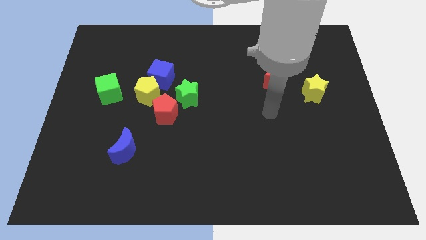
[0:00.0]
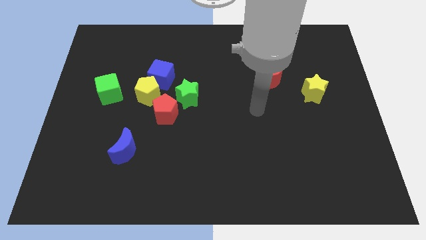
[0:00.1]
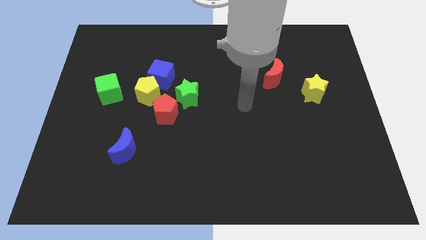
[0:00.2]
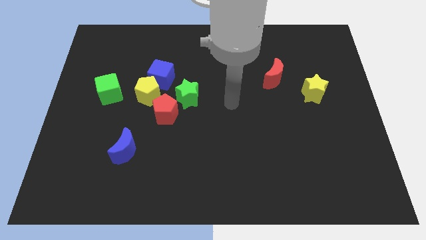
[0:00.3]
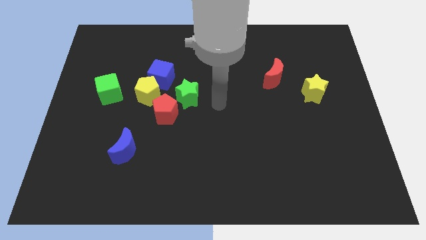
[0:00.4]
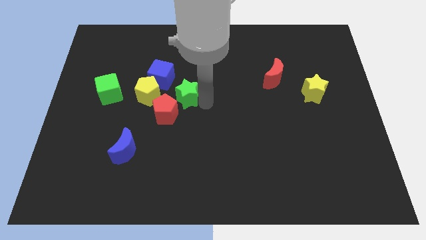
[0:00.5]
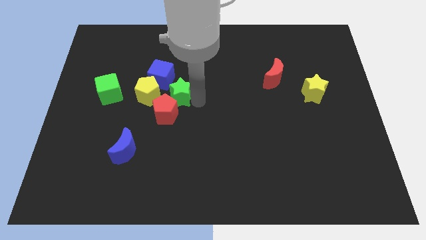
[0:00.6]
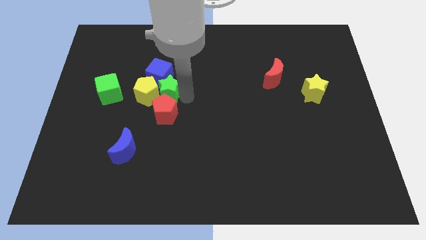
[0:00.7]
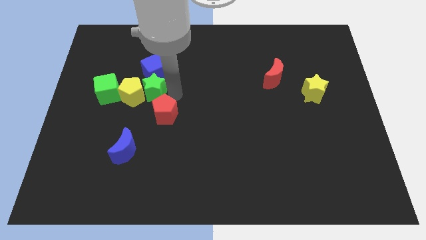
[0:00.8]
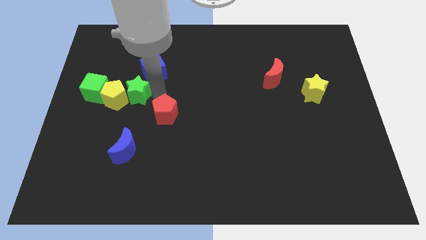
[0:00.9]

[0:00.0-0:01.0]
move the red pentagon away from the green star and yellow pentagon

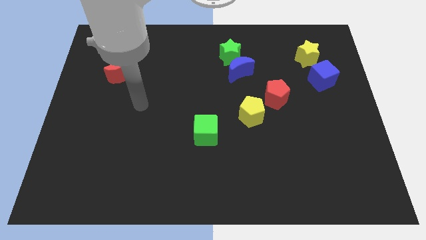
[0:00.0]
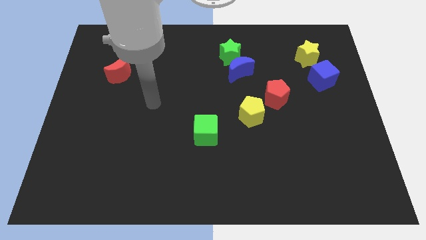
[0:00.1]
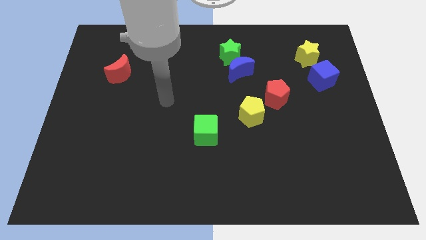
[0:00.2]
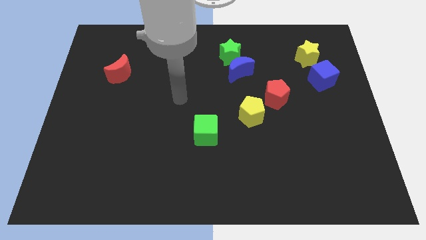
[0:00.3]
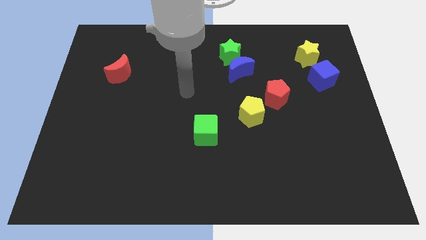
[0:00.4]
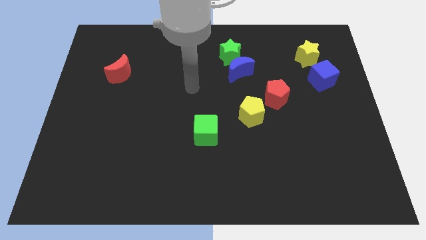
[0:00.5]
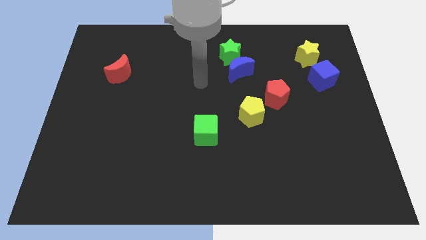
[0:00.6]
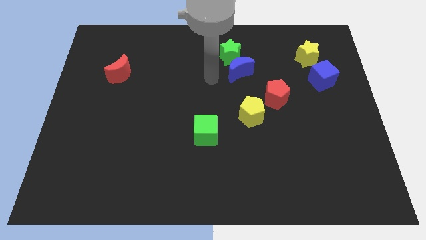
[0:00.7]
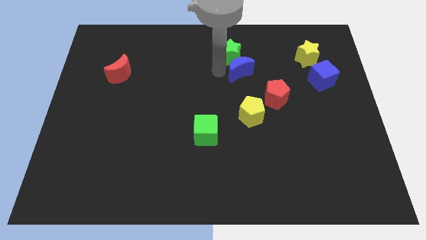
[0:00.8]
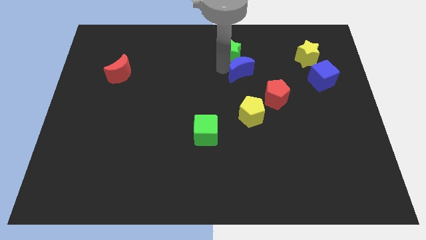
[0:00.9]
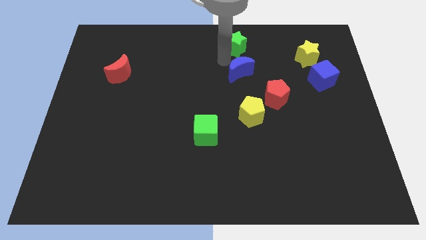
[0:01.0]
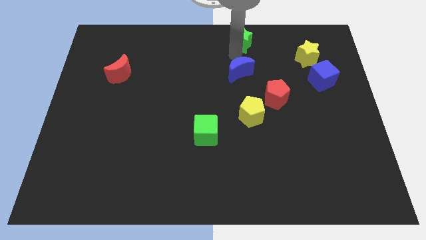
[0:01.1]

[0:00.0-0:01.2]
pull the blue moon apart from the green star

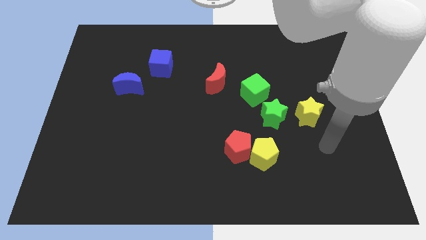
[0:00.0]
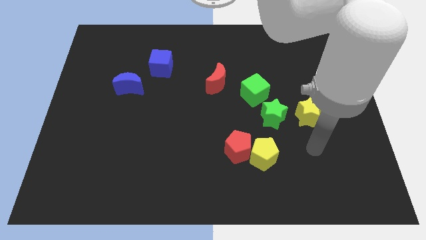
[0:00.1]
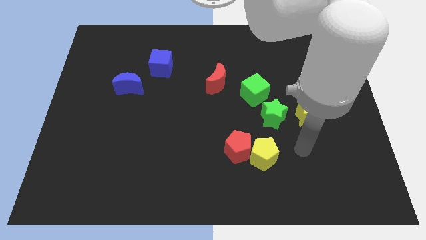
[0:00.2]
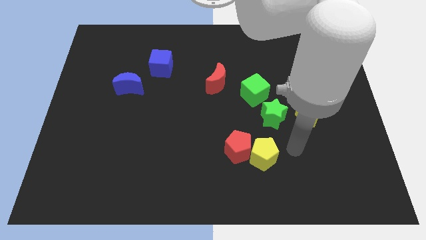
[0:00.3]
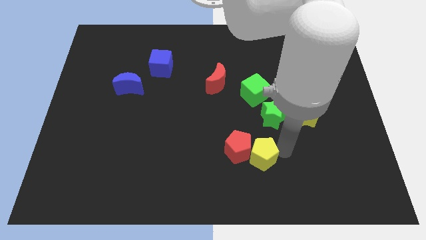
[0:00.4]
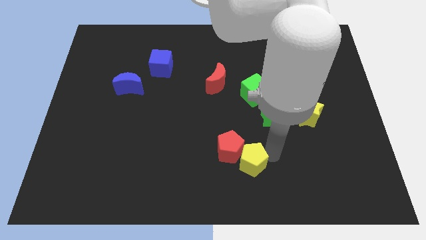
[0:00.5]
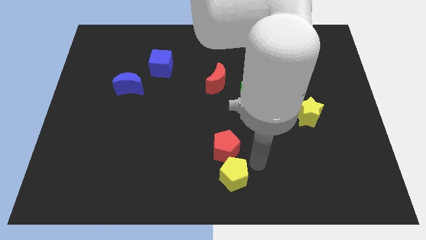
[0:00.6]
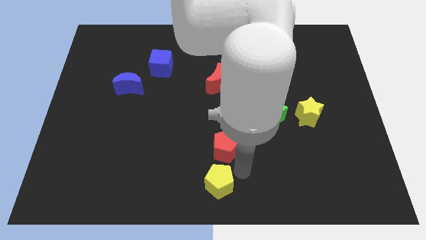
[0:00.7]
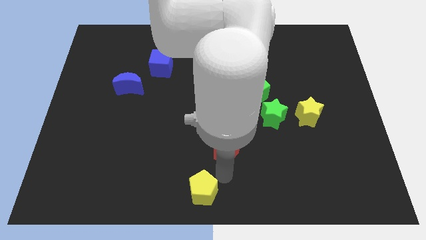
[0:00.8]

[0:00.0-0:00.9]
move the red pentagon away from the yellow pentagon

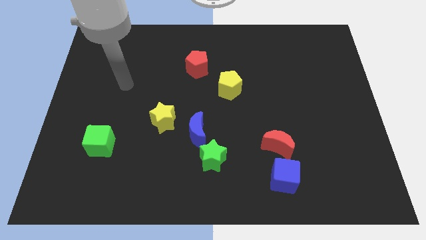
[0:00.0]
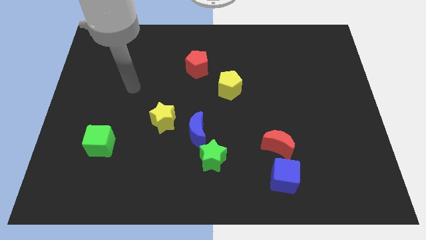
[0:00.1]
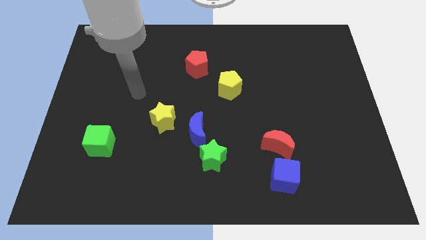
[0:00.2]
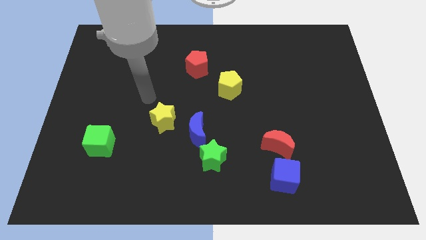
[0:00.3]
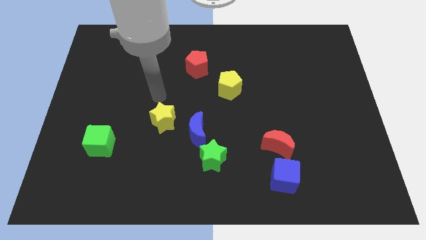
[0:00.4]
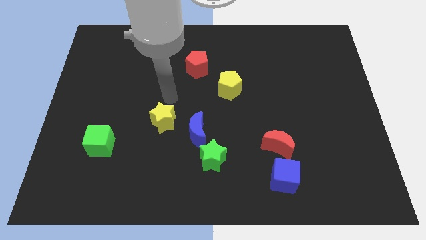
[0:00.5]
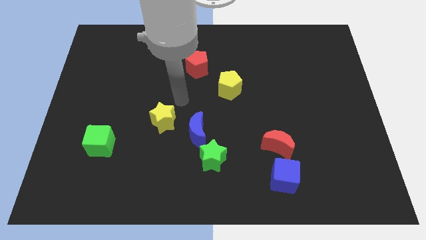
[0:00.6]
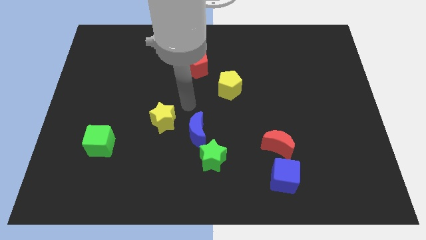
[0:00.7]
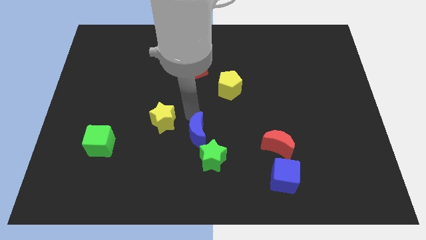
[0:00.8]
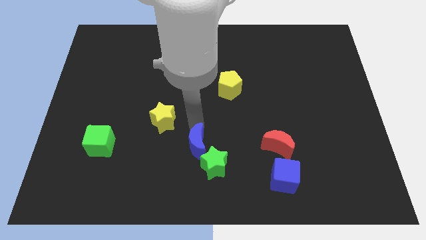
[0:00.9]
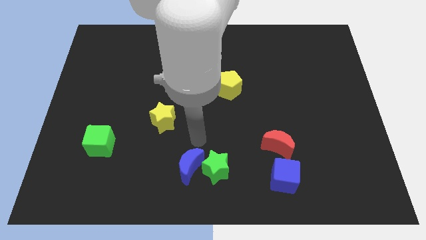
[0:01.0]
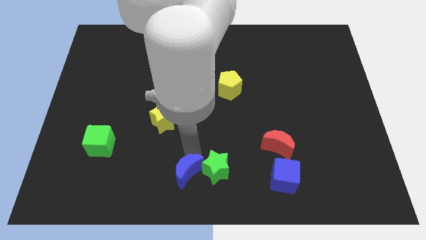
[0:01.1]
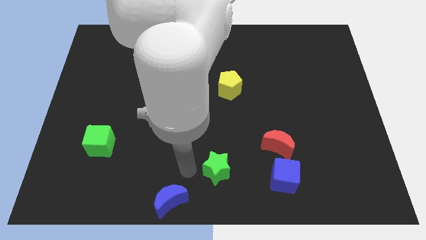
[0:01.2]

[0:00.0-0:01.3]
pull the green star apart from the blue moon

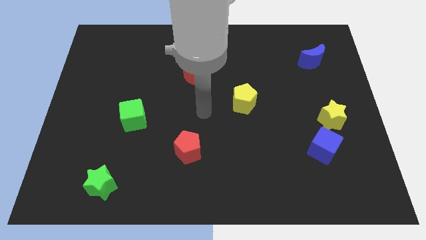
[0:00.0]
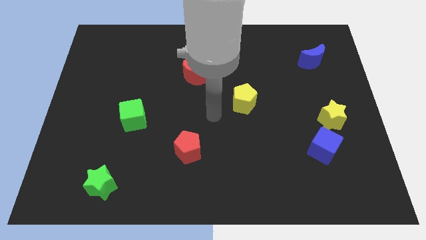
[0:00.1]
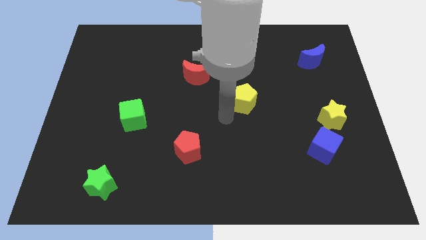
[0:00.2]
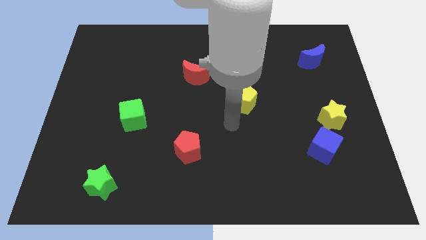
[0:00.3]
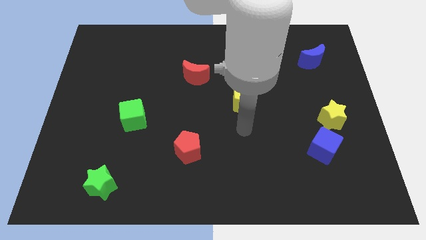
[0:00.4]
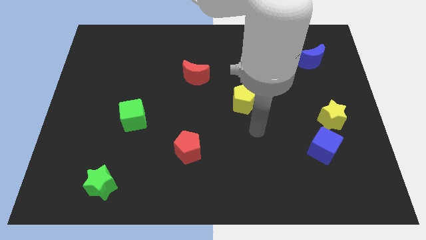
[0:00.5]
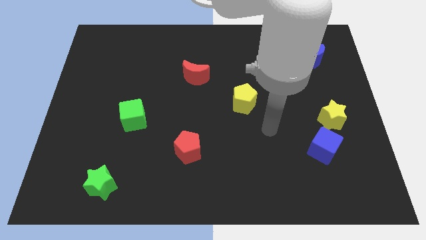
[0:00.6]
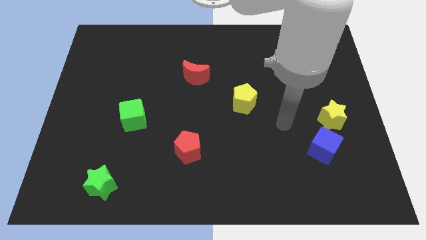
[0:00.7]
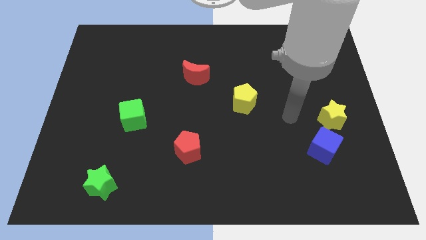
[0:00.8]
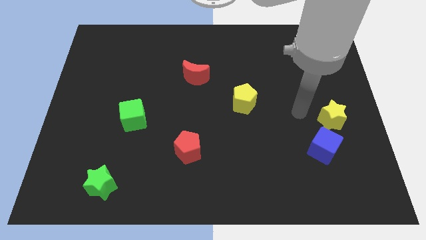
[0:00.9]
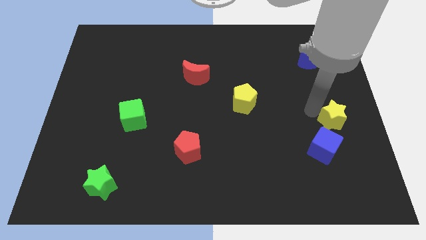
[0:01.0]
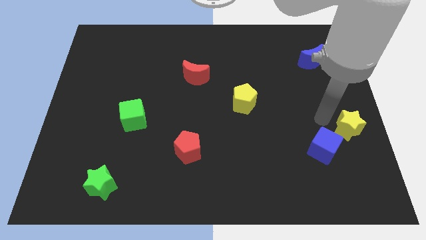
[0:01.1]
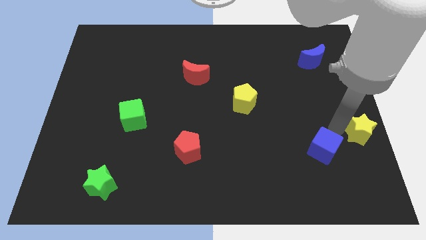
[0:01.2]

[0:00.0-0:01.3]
pull the blue cube apart from the yellow star

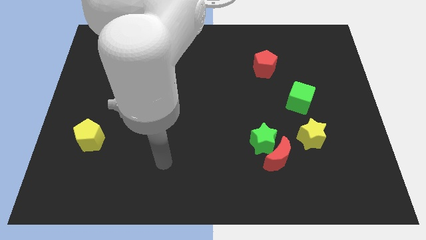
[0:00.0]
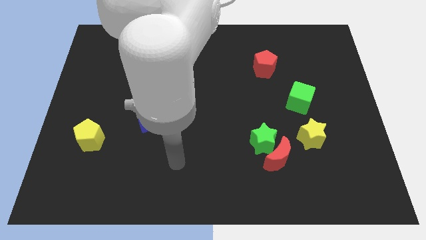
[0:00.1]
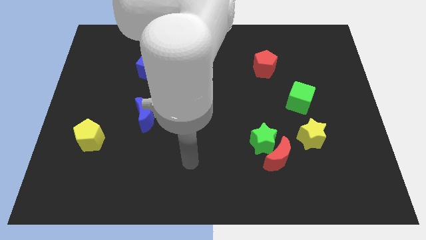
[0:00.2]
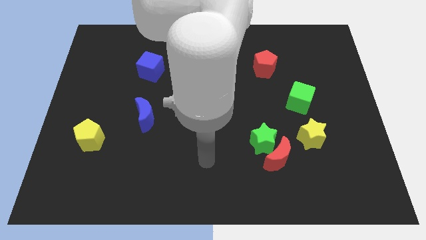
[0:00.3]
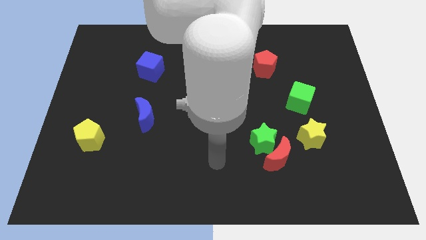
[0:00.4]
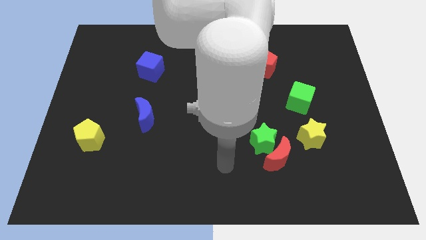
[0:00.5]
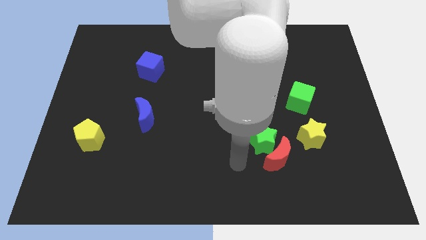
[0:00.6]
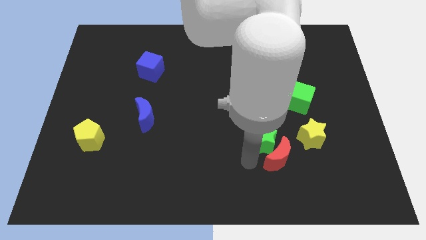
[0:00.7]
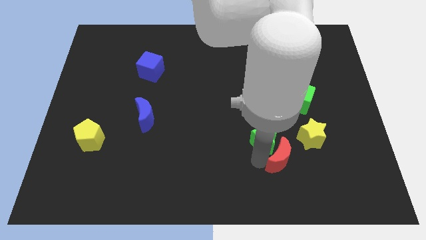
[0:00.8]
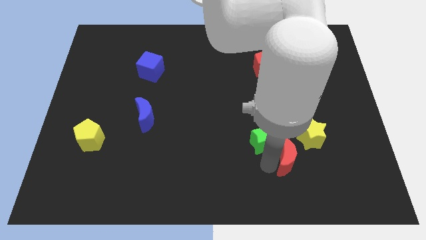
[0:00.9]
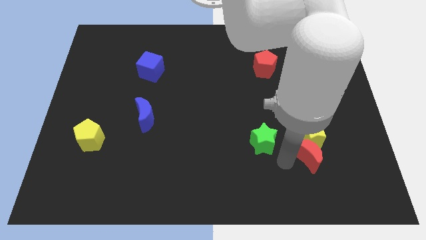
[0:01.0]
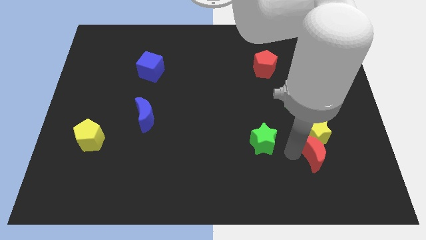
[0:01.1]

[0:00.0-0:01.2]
separate the green star from the red moon

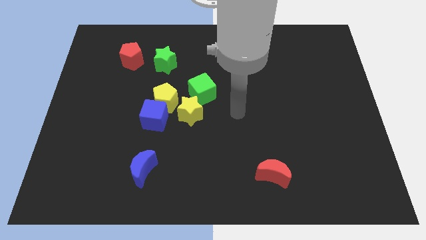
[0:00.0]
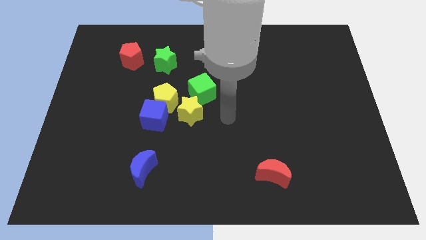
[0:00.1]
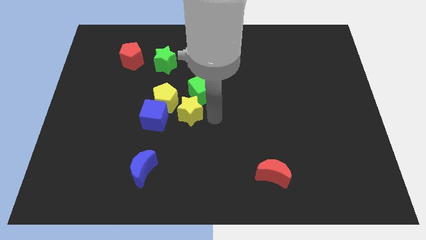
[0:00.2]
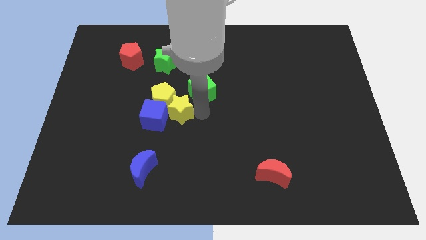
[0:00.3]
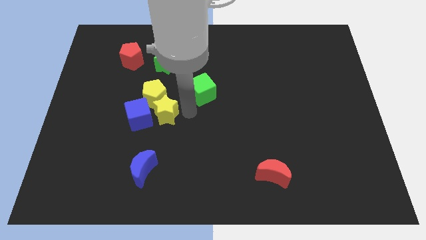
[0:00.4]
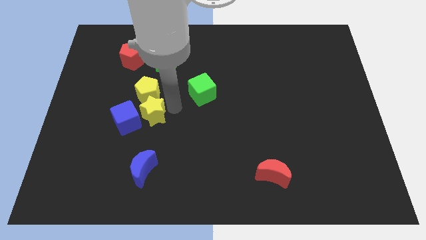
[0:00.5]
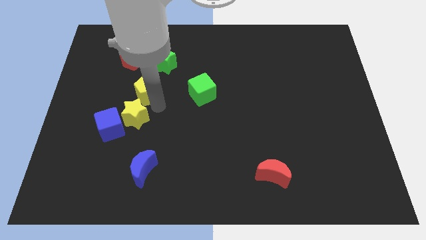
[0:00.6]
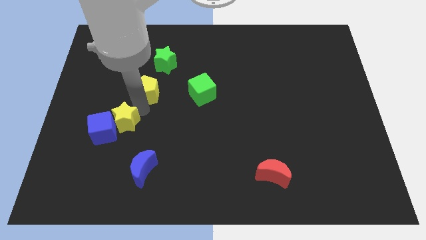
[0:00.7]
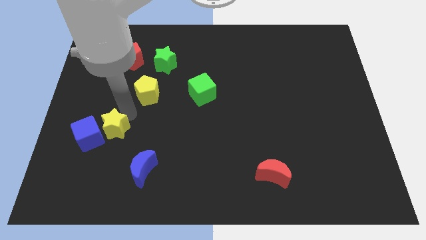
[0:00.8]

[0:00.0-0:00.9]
move the blue cube away from the yellow pentagon and yellow star

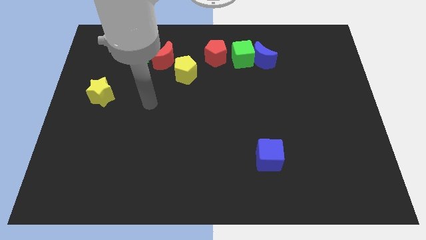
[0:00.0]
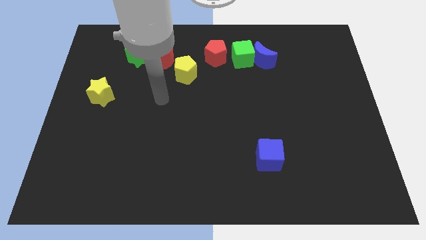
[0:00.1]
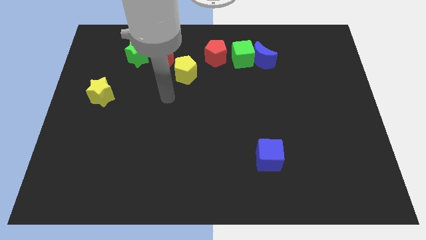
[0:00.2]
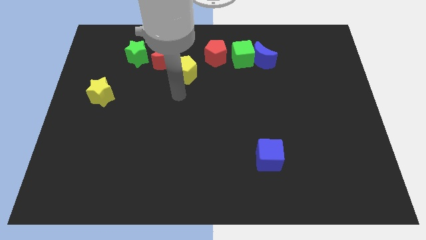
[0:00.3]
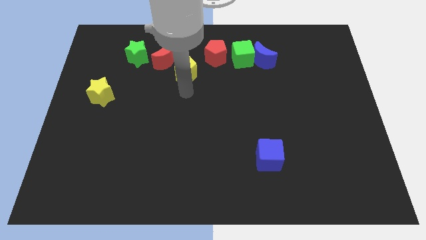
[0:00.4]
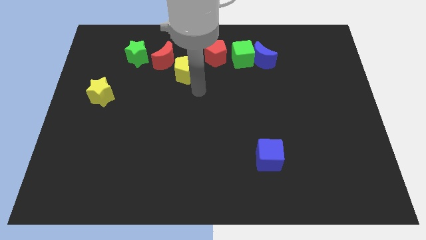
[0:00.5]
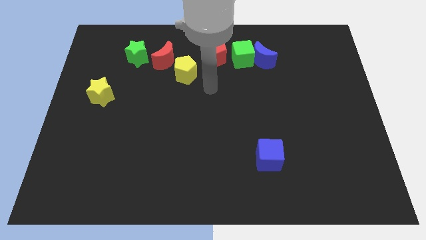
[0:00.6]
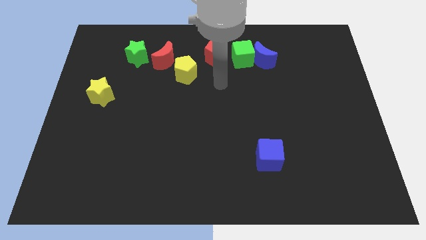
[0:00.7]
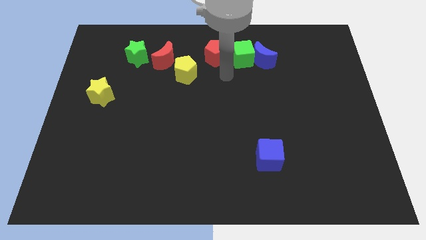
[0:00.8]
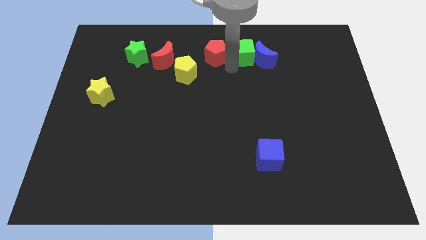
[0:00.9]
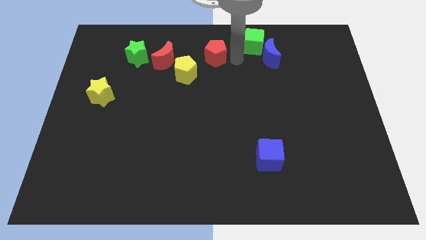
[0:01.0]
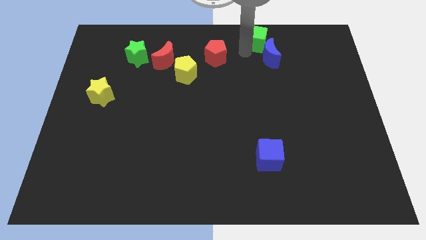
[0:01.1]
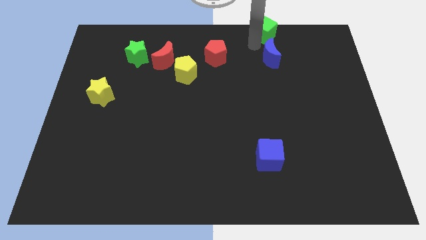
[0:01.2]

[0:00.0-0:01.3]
pull the blue moon apart from the green cube

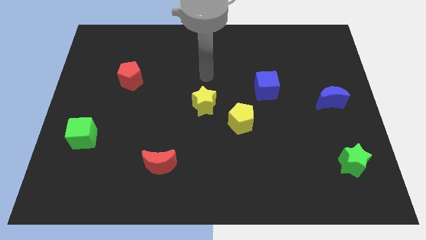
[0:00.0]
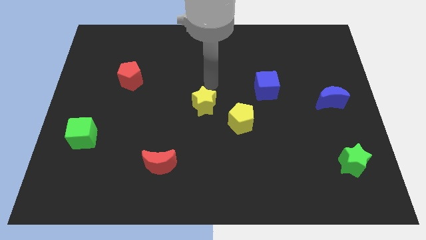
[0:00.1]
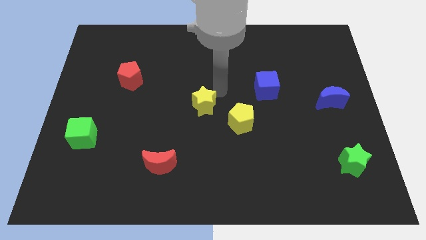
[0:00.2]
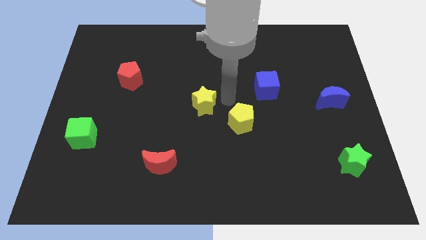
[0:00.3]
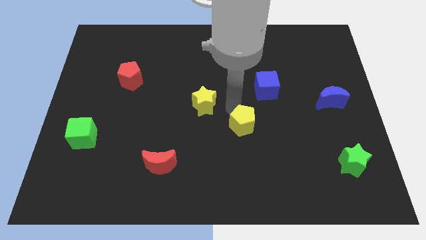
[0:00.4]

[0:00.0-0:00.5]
move the yellow star away from the yellow pentagon
